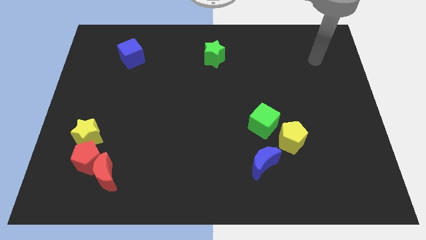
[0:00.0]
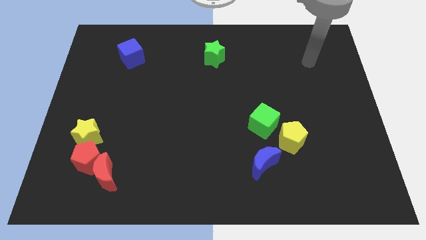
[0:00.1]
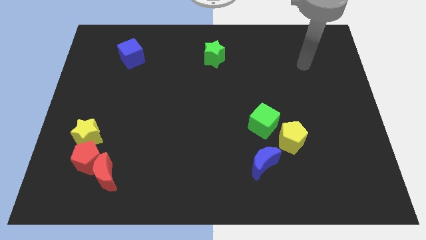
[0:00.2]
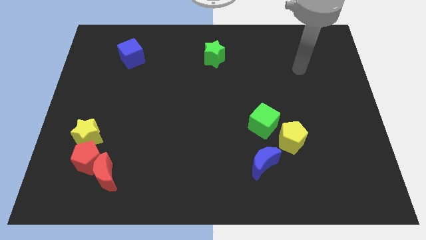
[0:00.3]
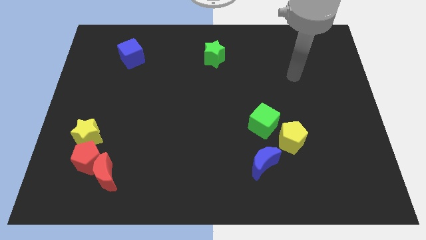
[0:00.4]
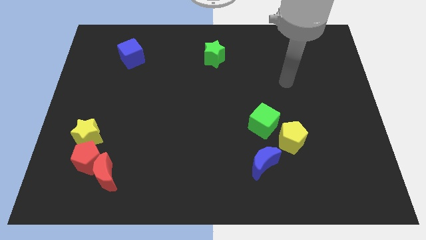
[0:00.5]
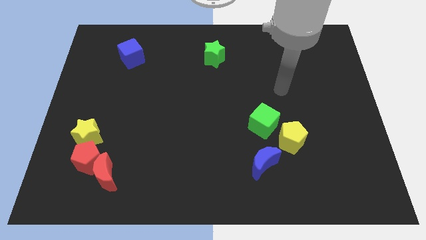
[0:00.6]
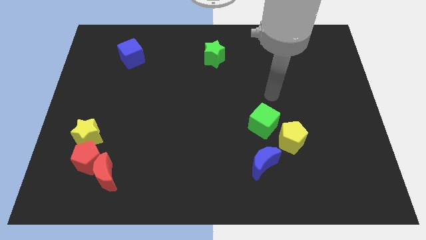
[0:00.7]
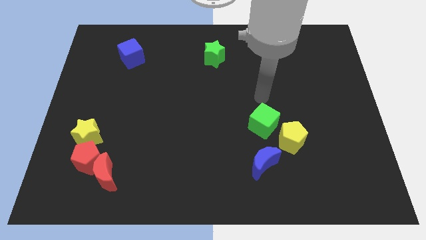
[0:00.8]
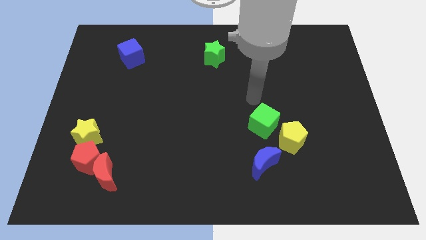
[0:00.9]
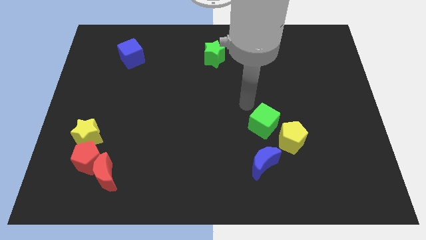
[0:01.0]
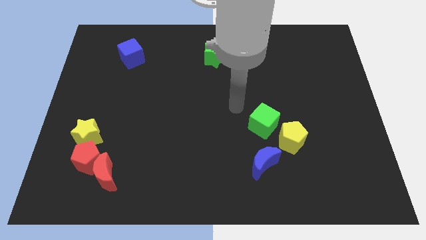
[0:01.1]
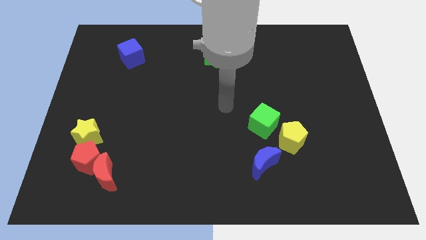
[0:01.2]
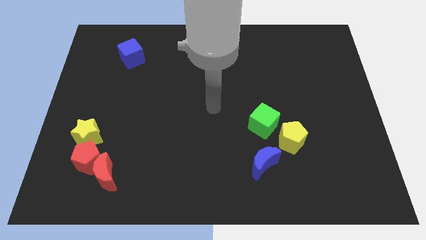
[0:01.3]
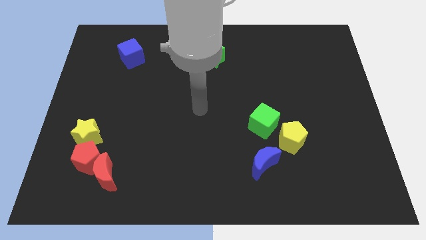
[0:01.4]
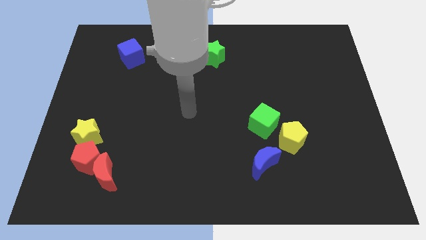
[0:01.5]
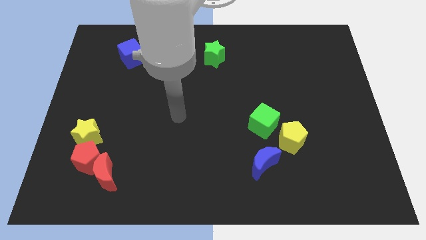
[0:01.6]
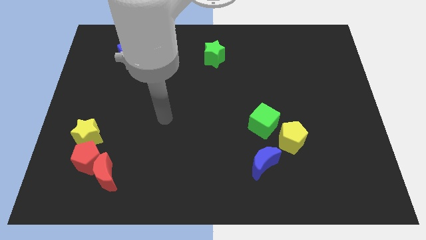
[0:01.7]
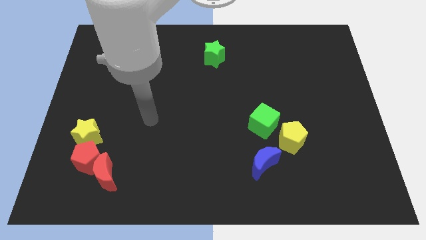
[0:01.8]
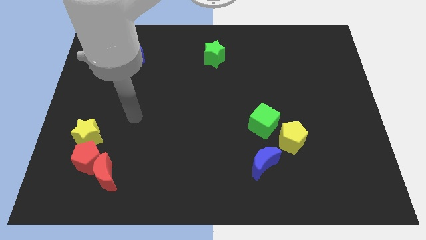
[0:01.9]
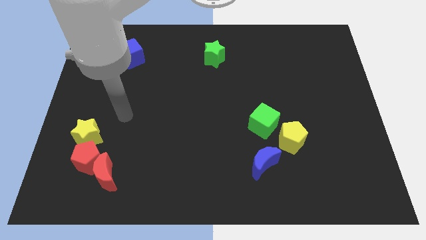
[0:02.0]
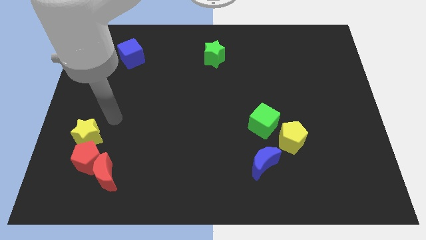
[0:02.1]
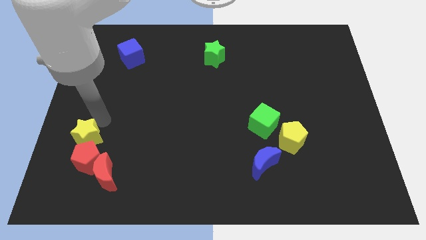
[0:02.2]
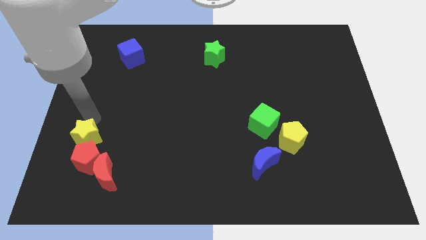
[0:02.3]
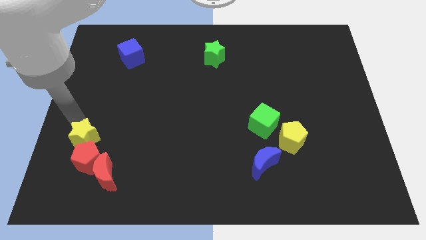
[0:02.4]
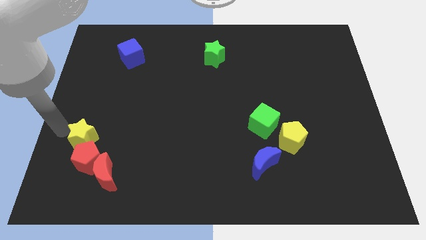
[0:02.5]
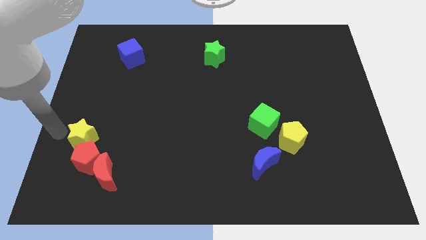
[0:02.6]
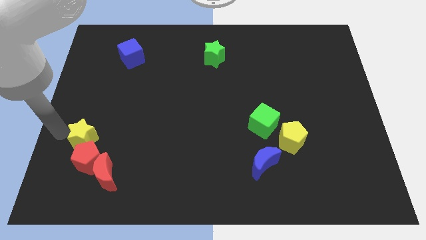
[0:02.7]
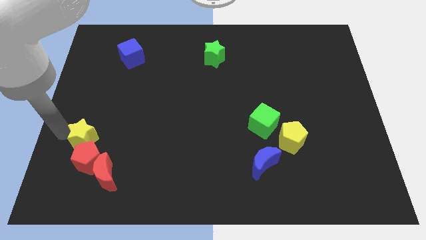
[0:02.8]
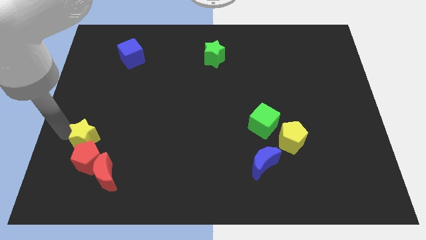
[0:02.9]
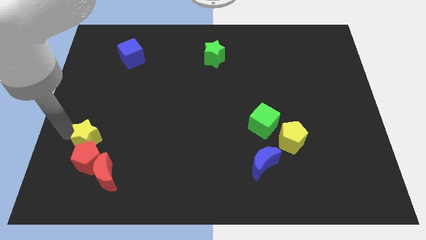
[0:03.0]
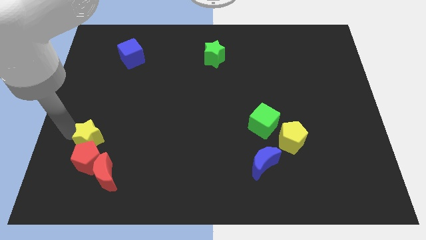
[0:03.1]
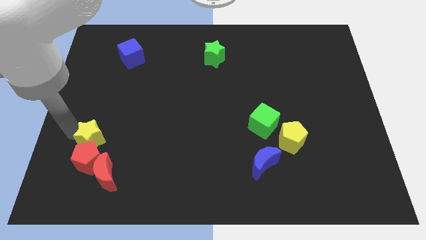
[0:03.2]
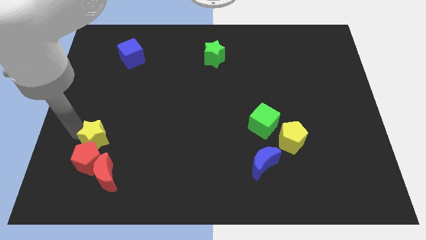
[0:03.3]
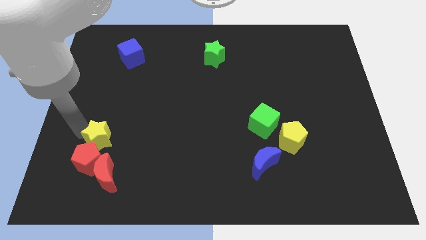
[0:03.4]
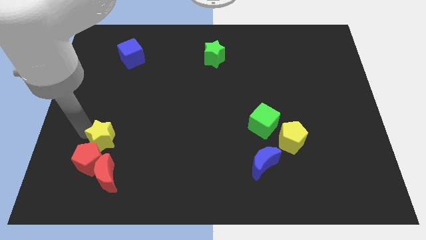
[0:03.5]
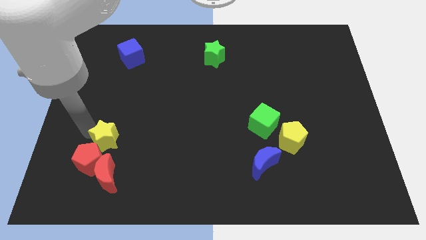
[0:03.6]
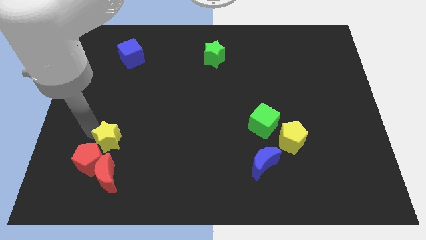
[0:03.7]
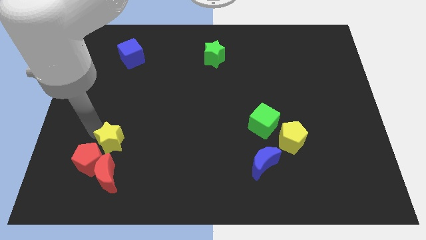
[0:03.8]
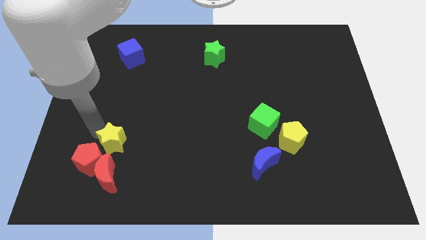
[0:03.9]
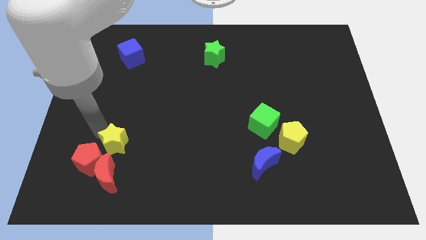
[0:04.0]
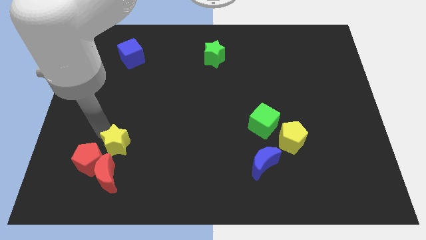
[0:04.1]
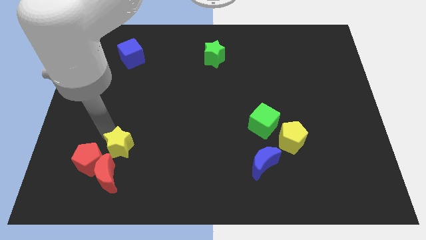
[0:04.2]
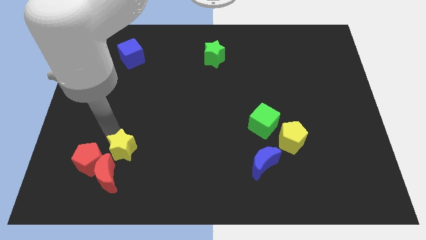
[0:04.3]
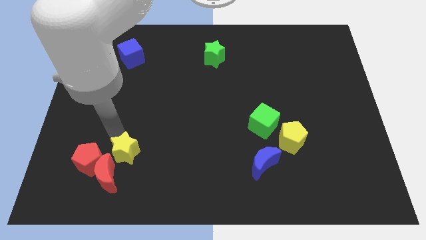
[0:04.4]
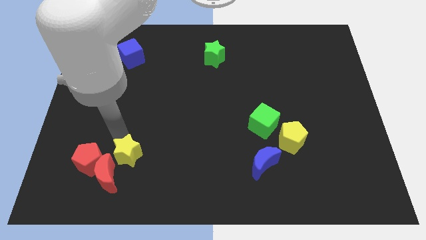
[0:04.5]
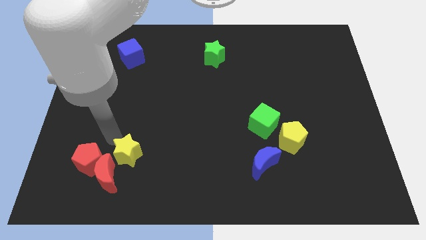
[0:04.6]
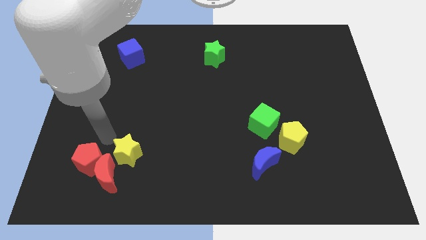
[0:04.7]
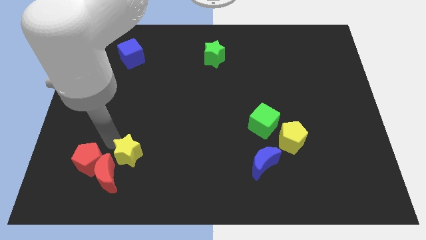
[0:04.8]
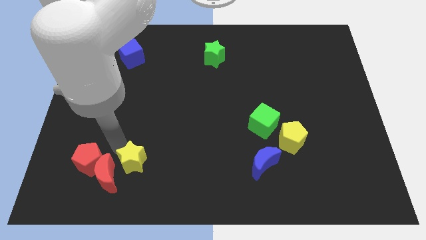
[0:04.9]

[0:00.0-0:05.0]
put the yellow star right of the red moon

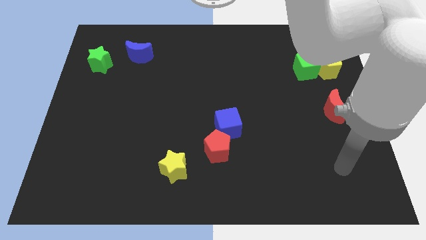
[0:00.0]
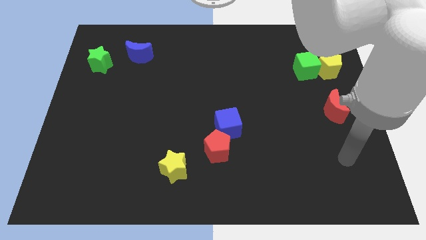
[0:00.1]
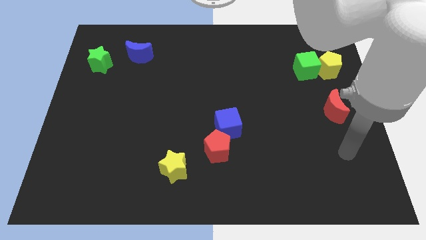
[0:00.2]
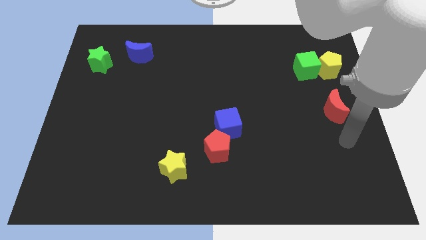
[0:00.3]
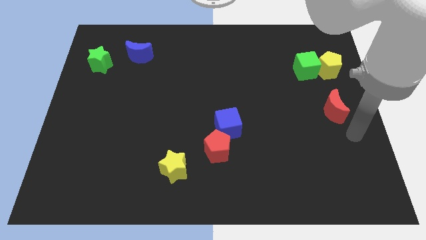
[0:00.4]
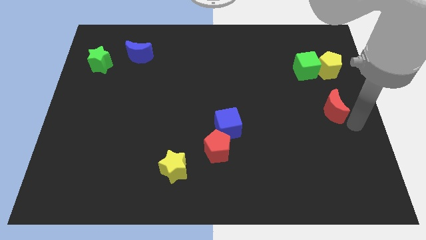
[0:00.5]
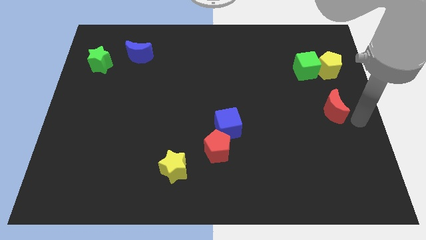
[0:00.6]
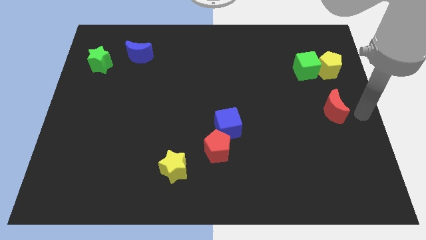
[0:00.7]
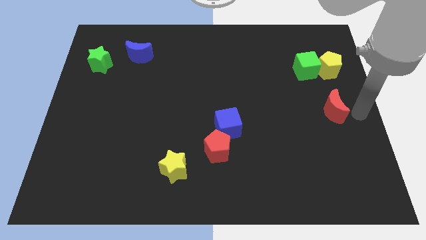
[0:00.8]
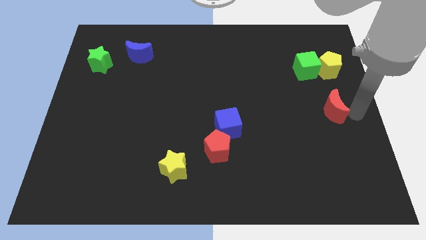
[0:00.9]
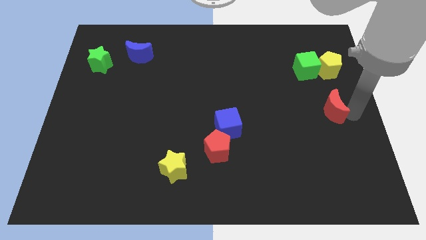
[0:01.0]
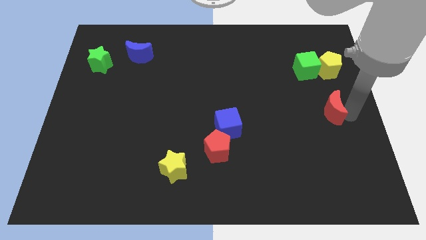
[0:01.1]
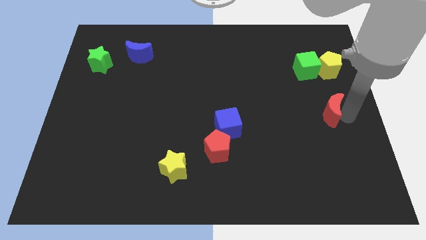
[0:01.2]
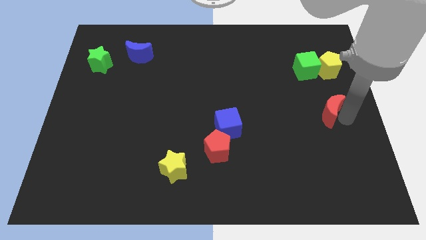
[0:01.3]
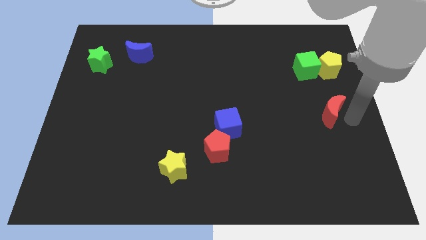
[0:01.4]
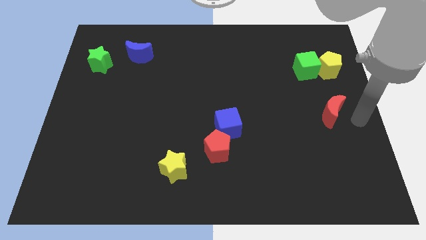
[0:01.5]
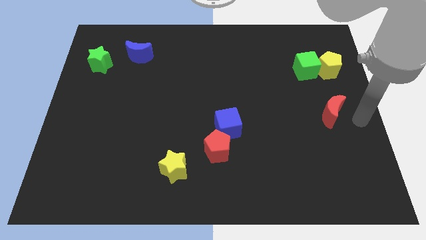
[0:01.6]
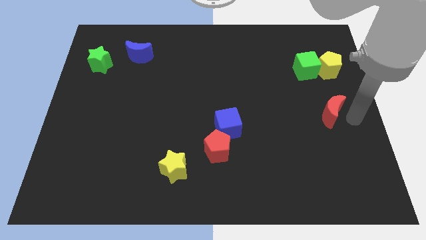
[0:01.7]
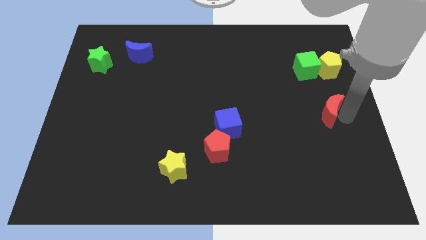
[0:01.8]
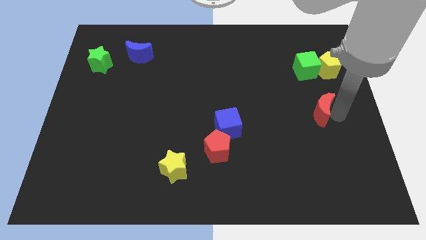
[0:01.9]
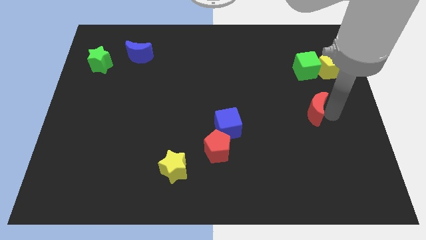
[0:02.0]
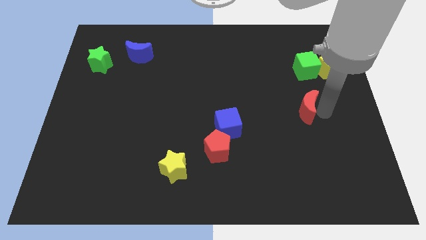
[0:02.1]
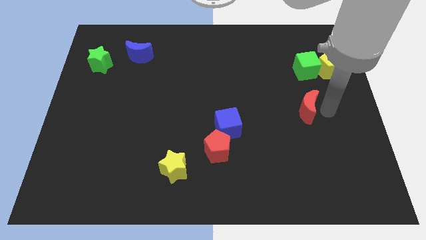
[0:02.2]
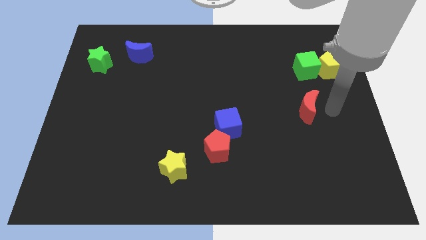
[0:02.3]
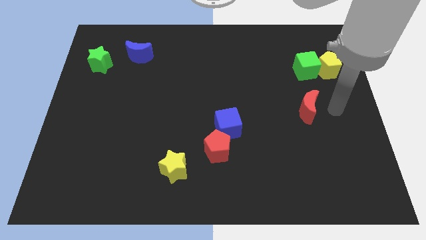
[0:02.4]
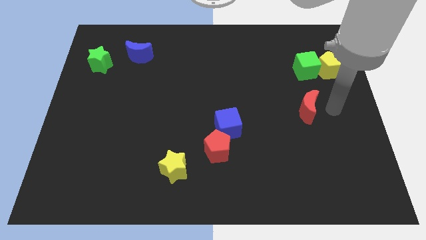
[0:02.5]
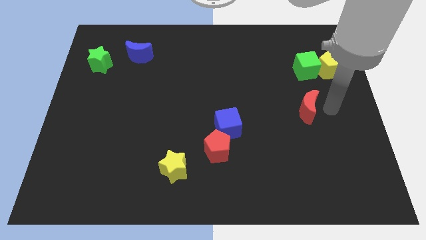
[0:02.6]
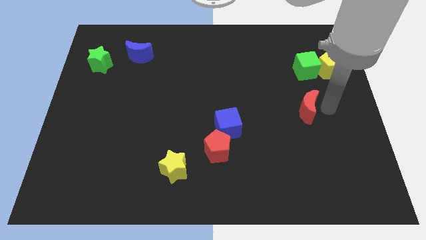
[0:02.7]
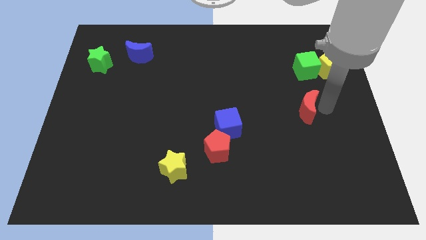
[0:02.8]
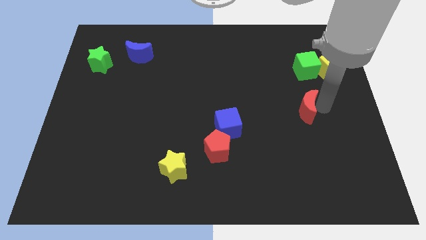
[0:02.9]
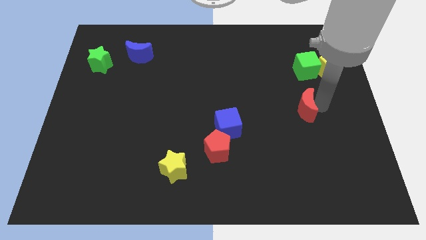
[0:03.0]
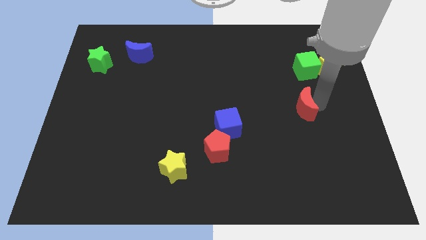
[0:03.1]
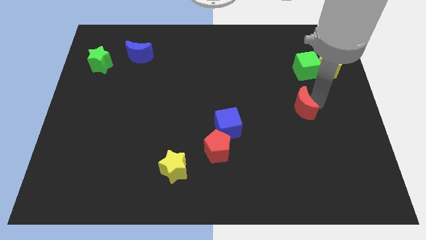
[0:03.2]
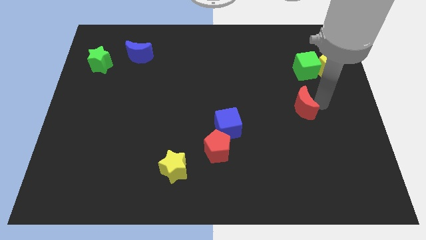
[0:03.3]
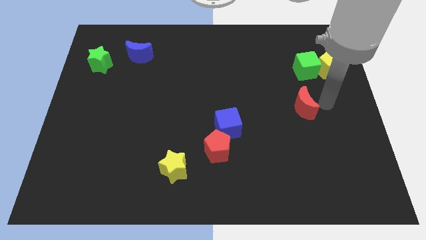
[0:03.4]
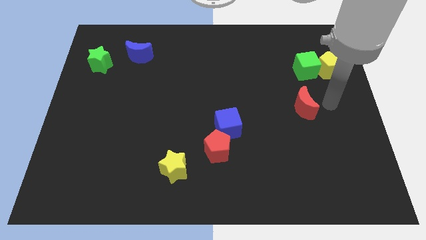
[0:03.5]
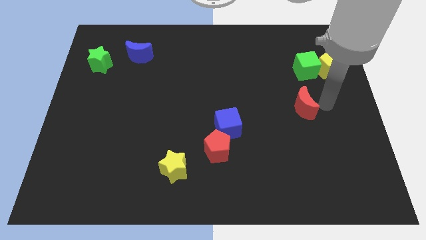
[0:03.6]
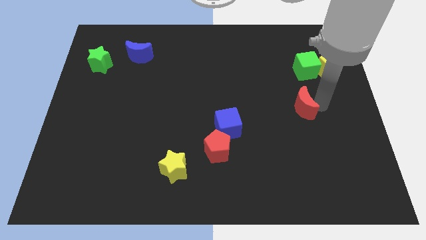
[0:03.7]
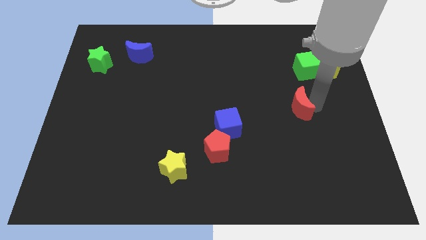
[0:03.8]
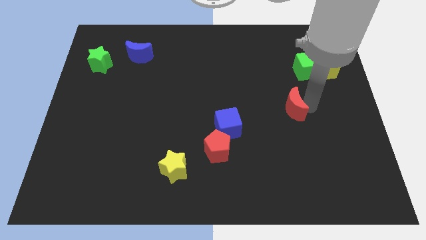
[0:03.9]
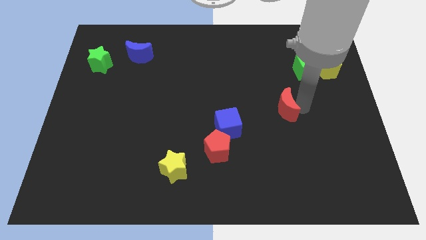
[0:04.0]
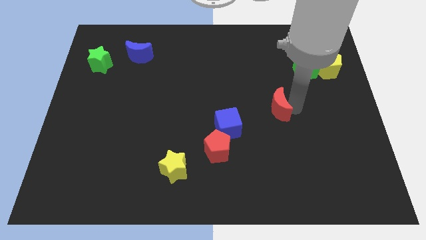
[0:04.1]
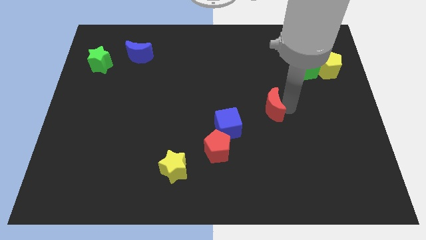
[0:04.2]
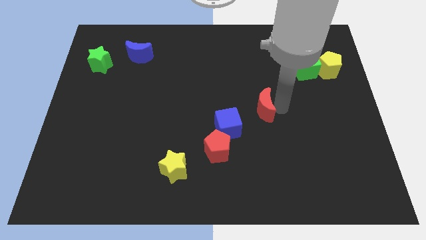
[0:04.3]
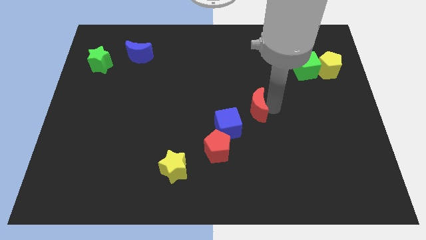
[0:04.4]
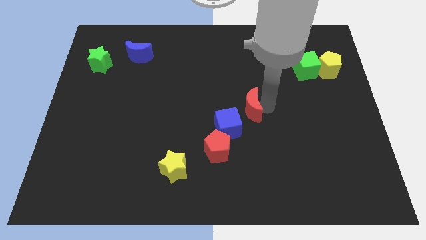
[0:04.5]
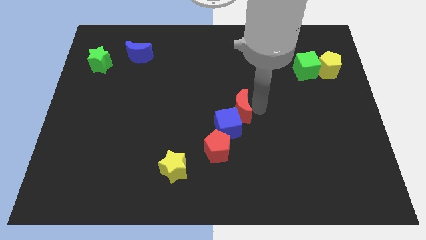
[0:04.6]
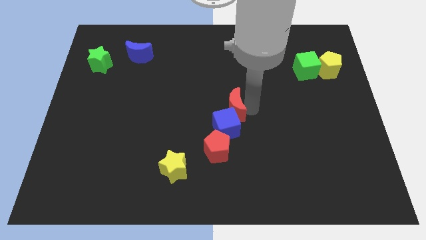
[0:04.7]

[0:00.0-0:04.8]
push the red moon above the red pentagon
